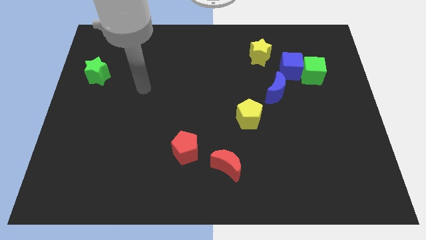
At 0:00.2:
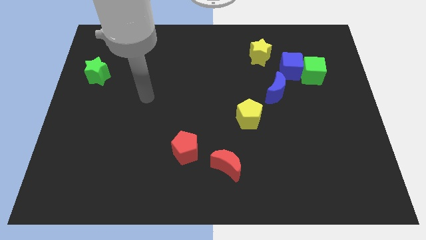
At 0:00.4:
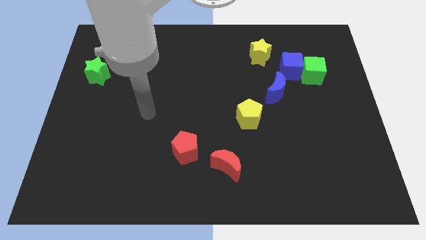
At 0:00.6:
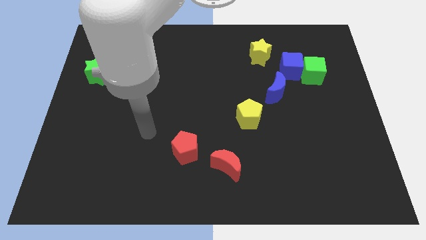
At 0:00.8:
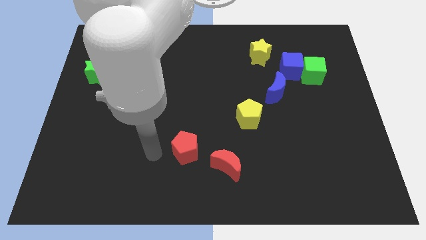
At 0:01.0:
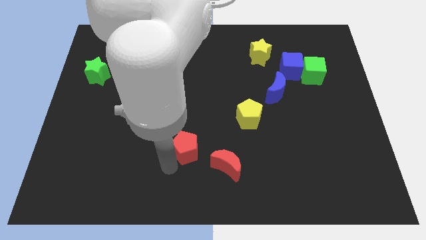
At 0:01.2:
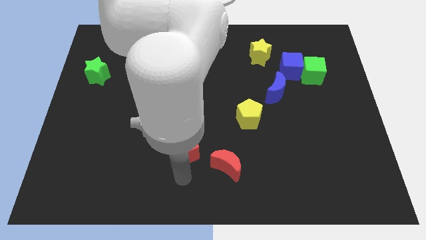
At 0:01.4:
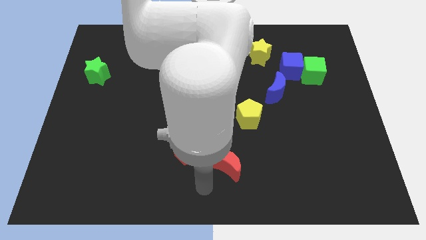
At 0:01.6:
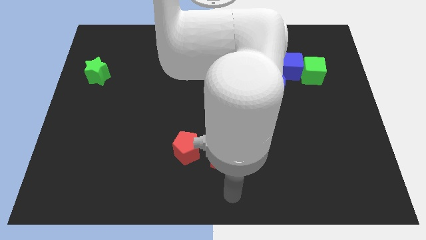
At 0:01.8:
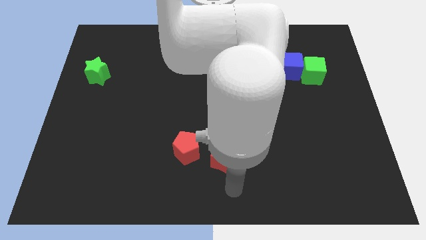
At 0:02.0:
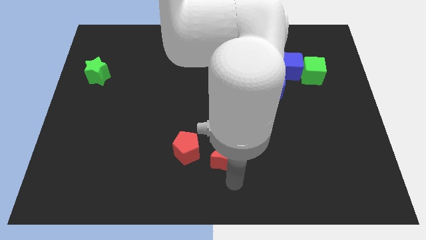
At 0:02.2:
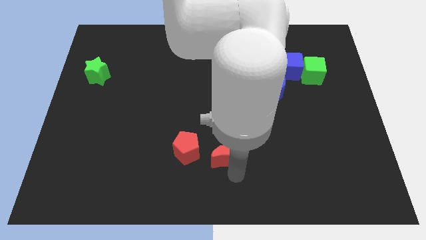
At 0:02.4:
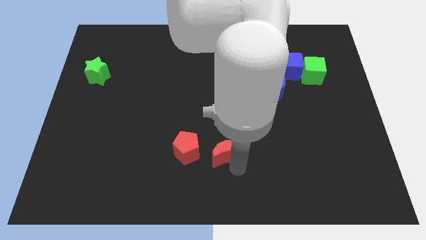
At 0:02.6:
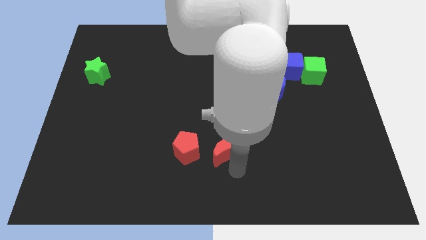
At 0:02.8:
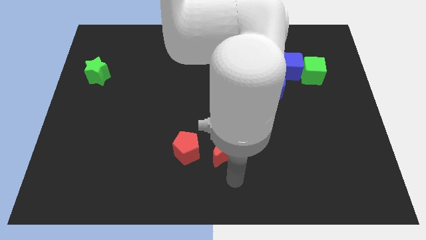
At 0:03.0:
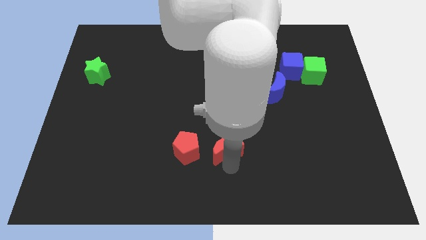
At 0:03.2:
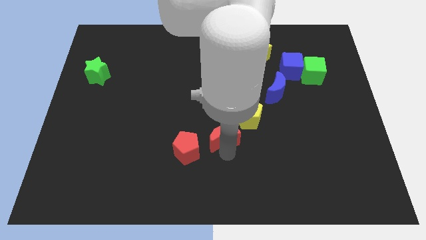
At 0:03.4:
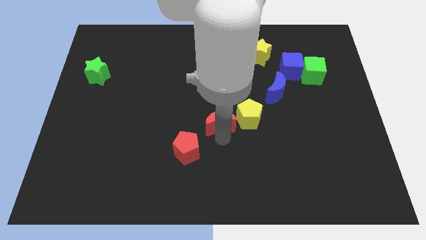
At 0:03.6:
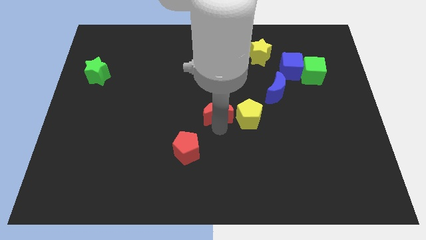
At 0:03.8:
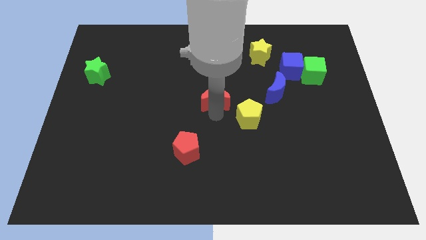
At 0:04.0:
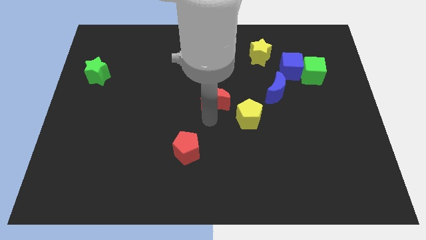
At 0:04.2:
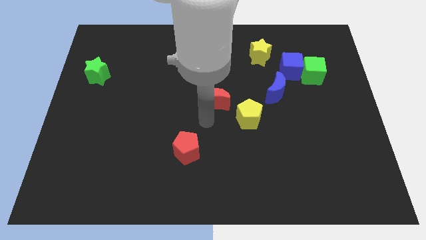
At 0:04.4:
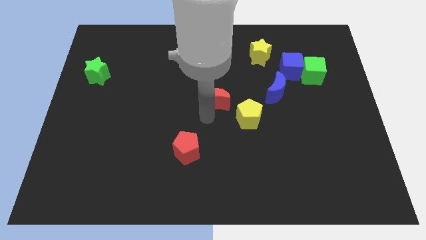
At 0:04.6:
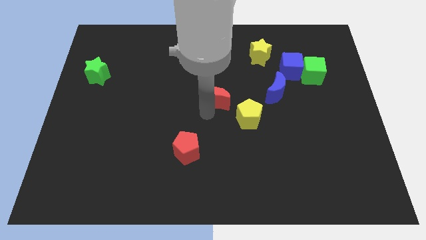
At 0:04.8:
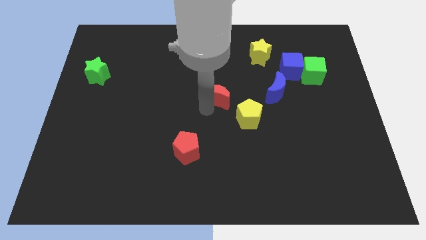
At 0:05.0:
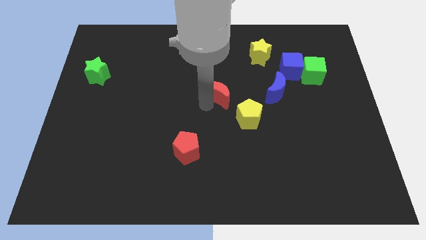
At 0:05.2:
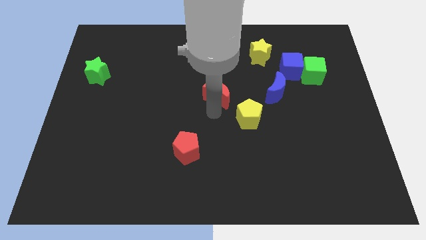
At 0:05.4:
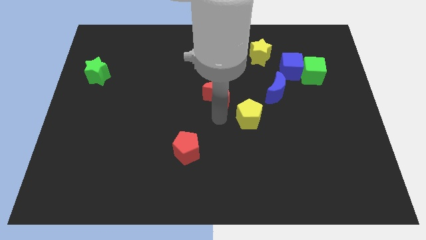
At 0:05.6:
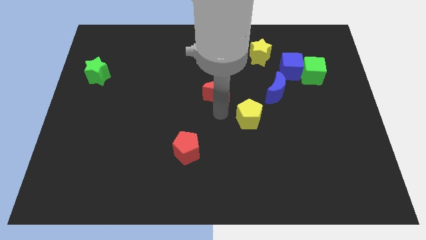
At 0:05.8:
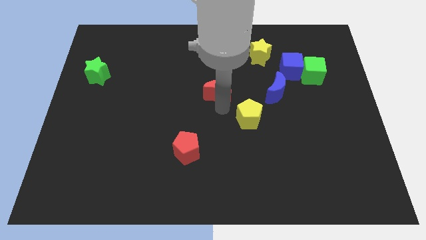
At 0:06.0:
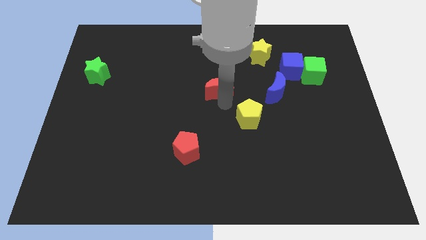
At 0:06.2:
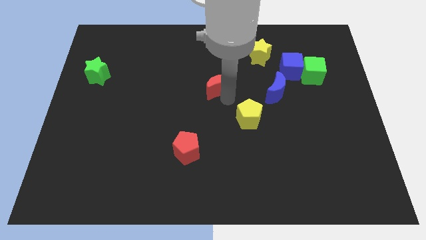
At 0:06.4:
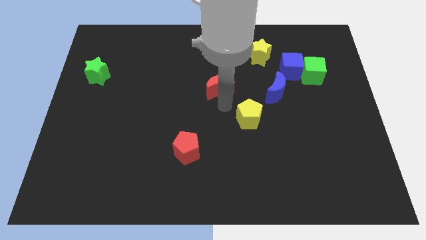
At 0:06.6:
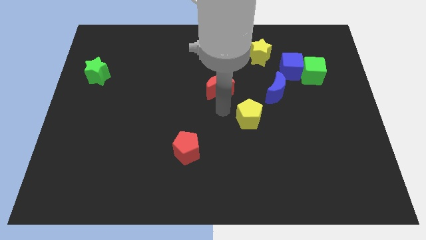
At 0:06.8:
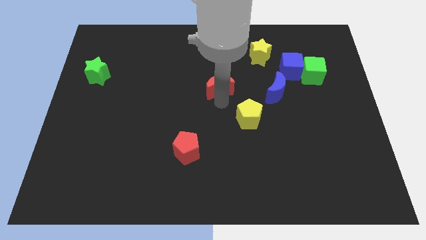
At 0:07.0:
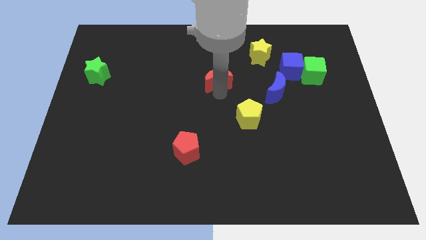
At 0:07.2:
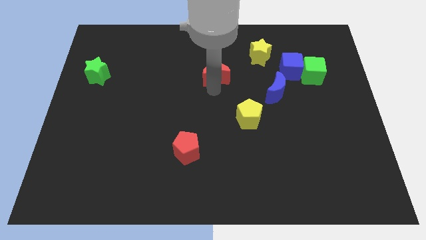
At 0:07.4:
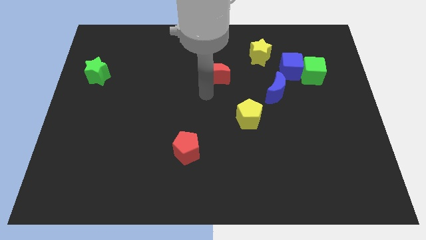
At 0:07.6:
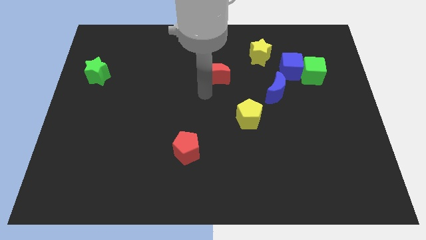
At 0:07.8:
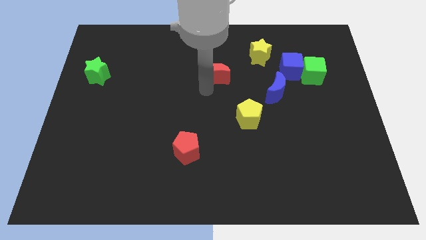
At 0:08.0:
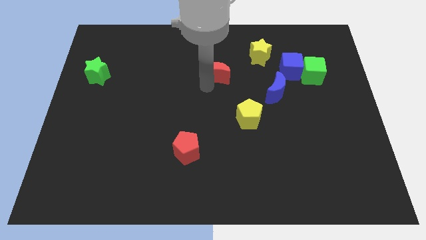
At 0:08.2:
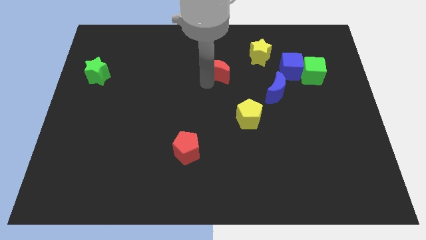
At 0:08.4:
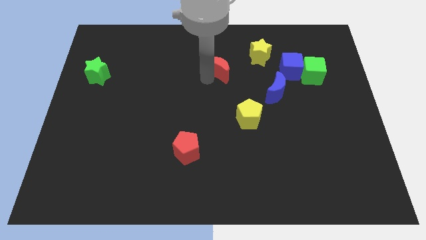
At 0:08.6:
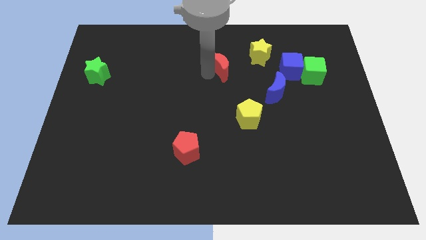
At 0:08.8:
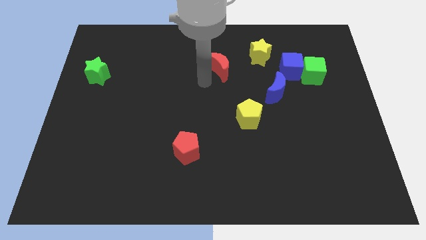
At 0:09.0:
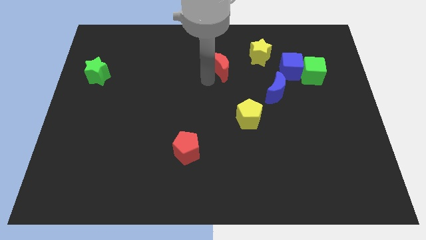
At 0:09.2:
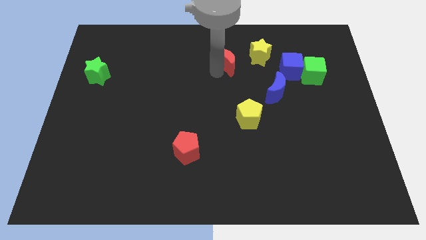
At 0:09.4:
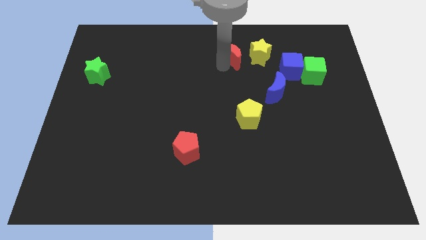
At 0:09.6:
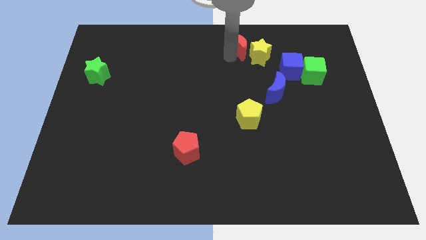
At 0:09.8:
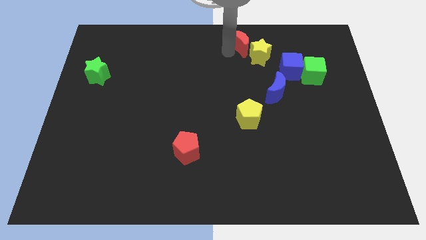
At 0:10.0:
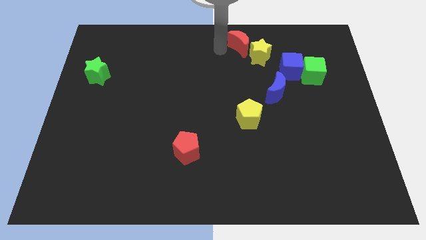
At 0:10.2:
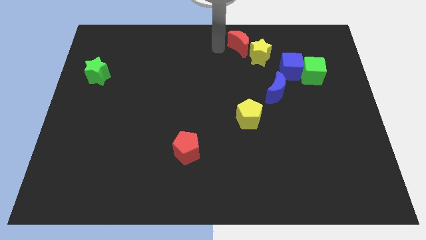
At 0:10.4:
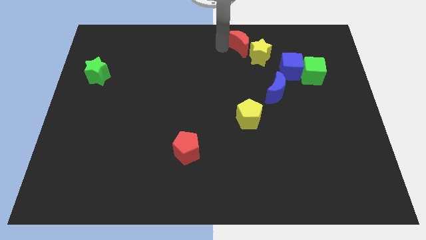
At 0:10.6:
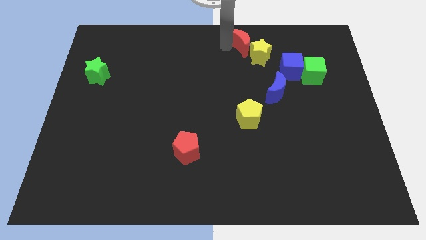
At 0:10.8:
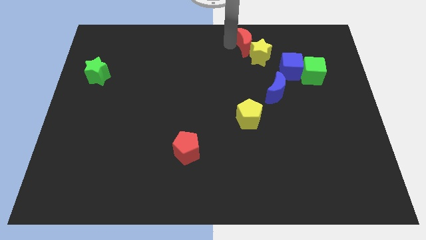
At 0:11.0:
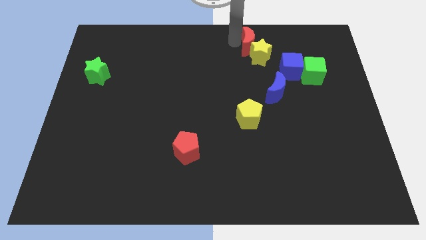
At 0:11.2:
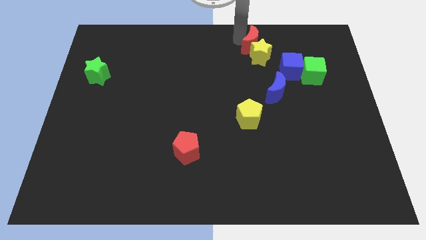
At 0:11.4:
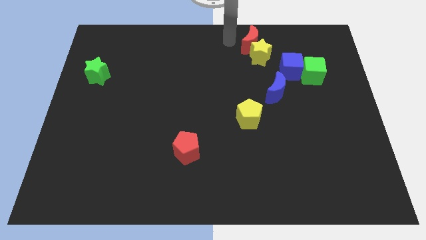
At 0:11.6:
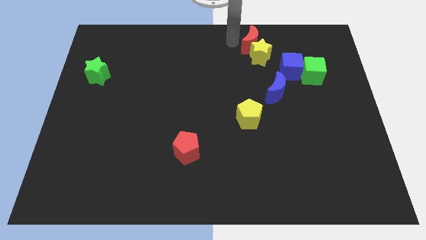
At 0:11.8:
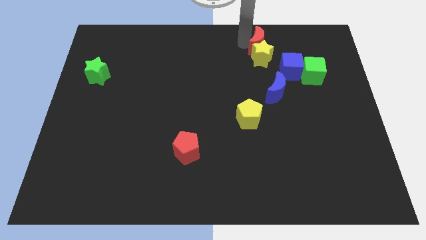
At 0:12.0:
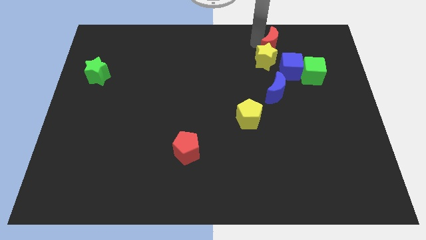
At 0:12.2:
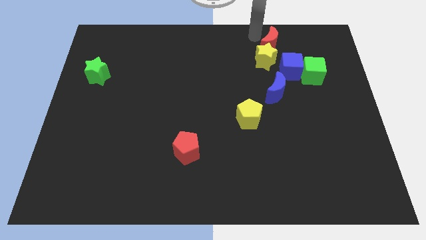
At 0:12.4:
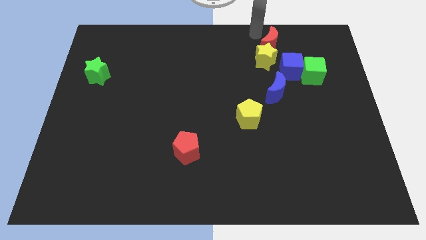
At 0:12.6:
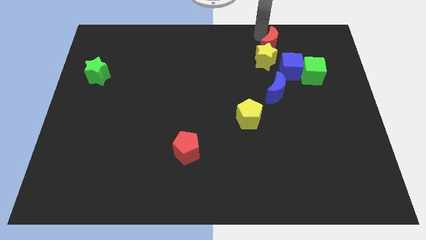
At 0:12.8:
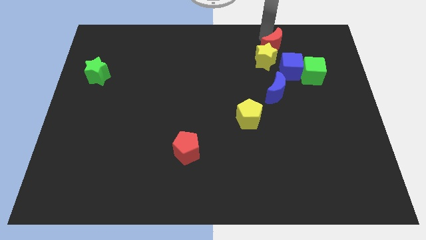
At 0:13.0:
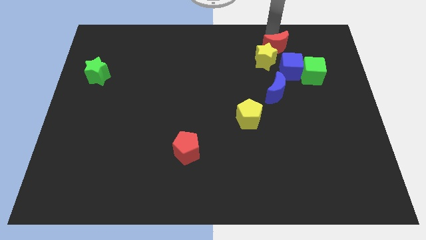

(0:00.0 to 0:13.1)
put the red moon diagonally up and to the left of the green cube

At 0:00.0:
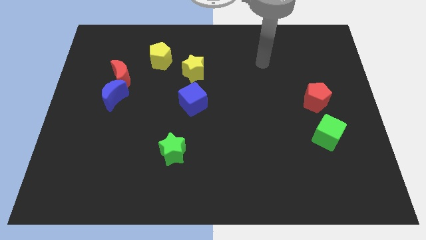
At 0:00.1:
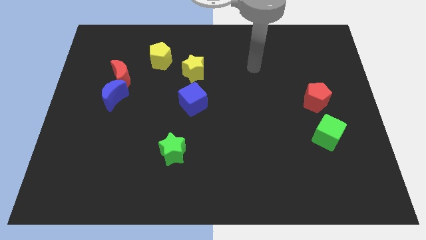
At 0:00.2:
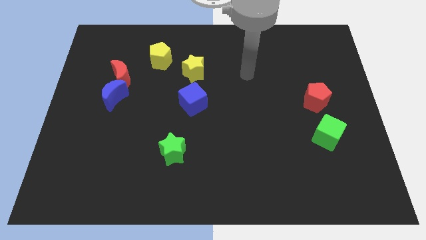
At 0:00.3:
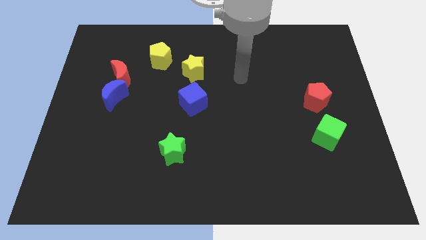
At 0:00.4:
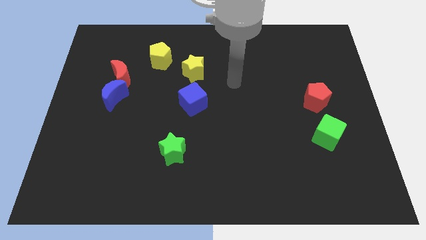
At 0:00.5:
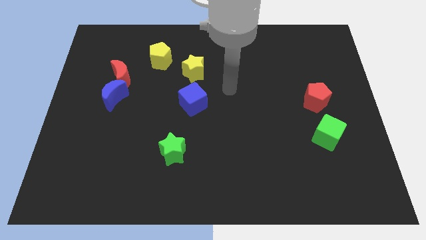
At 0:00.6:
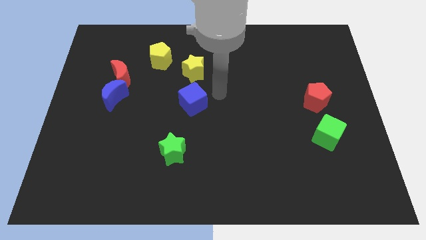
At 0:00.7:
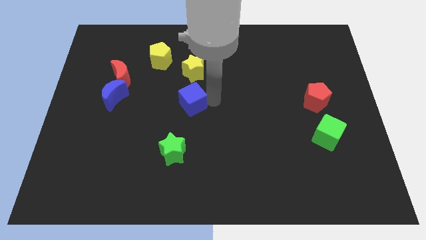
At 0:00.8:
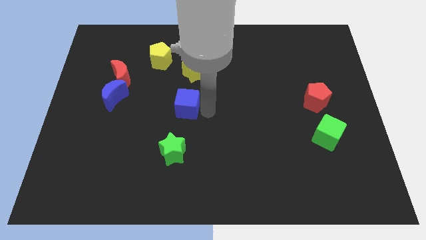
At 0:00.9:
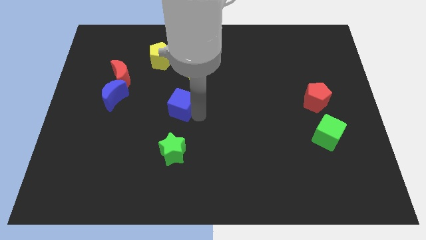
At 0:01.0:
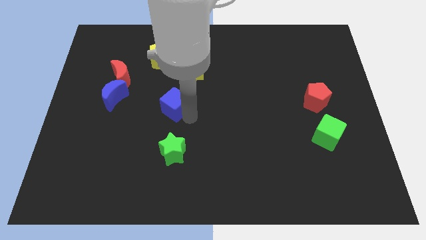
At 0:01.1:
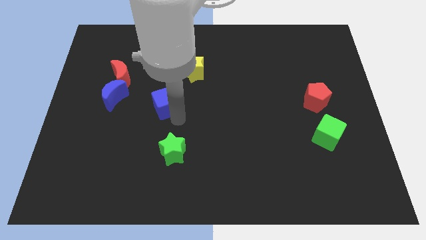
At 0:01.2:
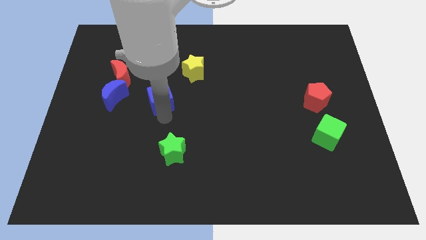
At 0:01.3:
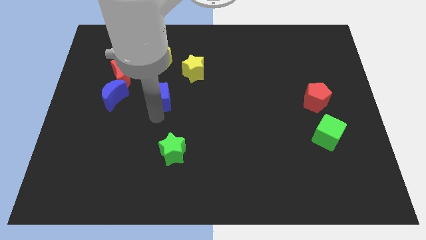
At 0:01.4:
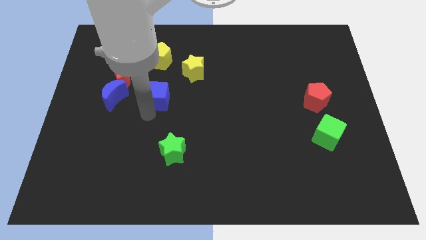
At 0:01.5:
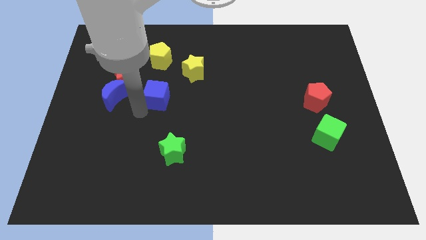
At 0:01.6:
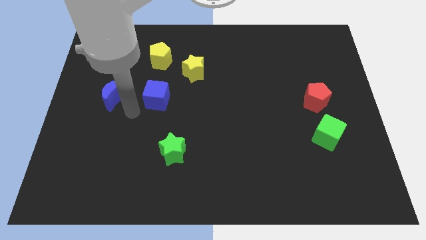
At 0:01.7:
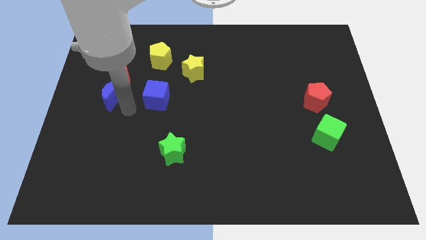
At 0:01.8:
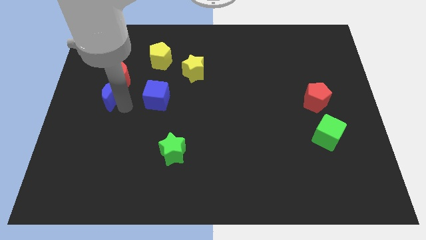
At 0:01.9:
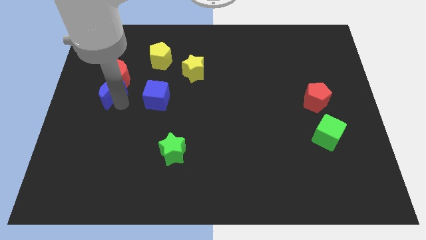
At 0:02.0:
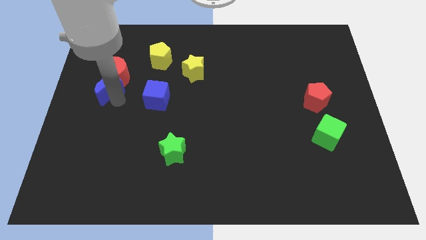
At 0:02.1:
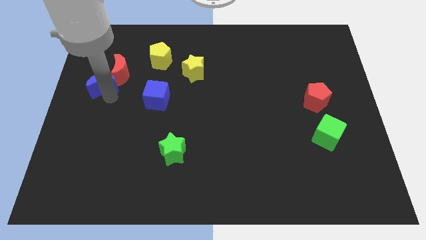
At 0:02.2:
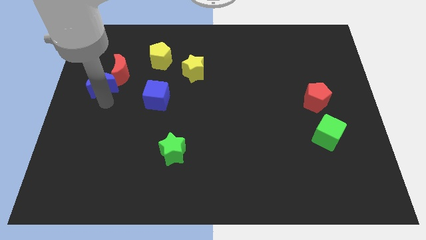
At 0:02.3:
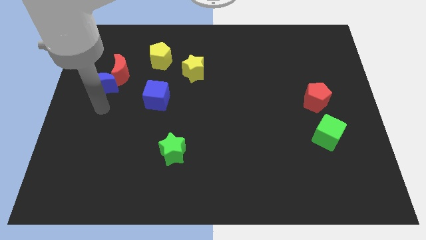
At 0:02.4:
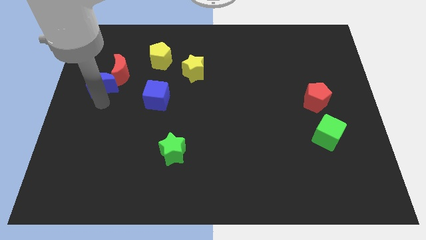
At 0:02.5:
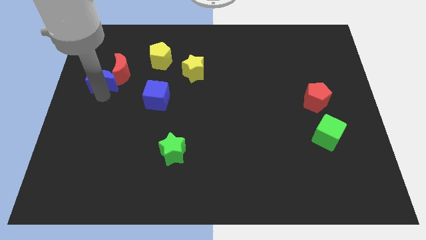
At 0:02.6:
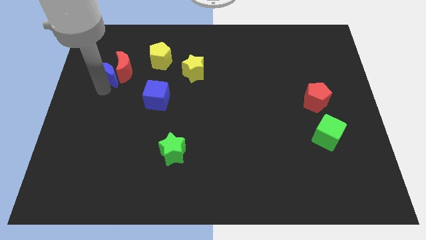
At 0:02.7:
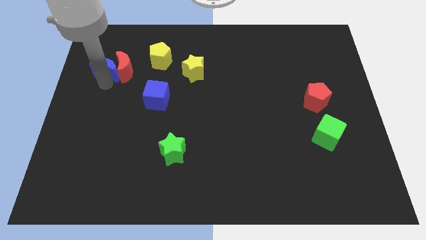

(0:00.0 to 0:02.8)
move the blue moon to the top left of the red moon
